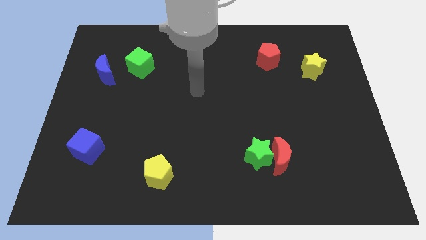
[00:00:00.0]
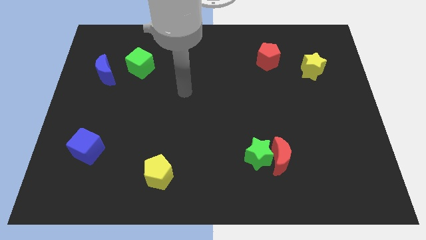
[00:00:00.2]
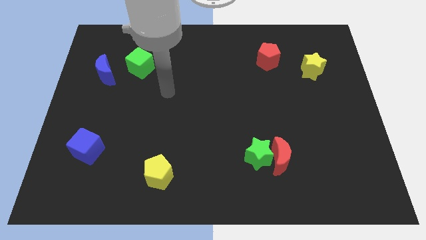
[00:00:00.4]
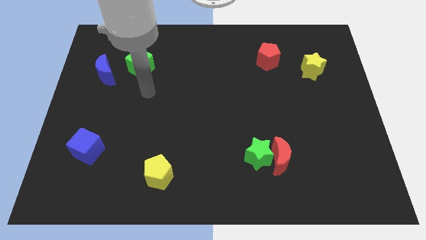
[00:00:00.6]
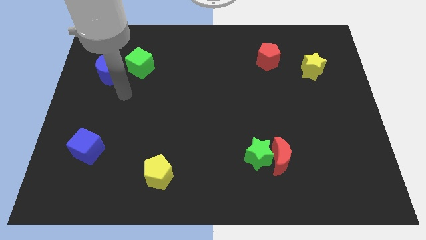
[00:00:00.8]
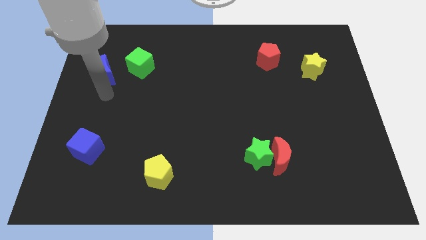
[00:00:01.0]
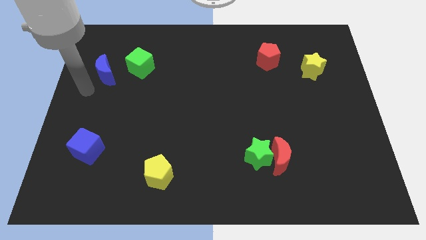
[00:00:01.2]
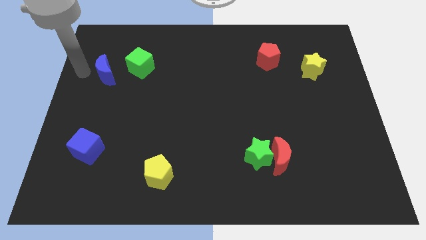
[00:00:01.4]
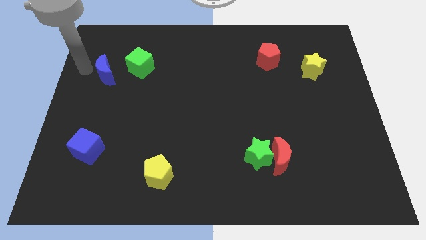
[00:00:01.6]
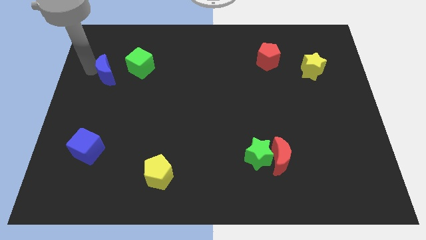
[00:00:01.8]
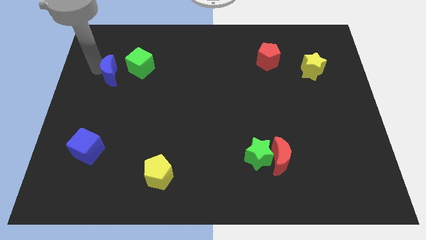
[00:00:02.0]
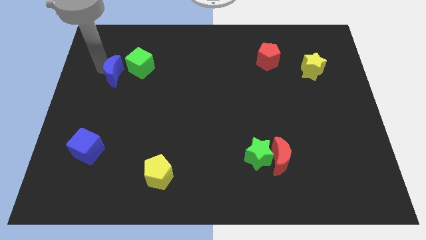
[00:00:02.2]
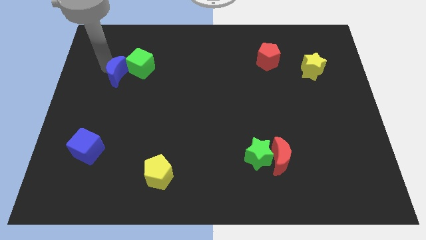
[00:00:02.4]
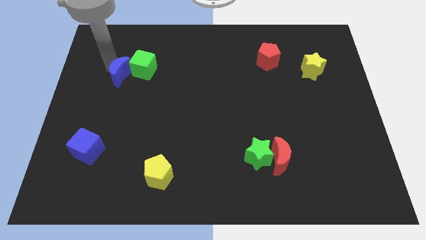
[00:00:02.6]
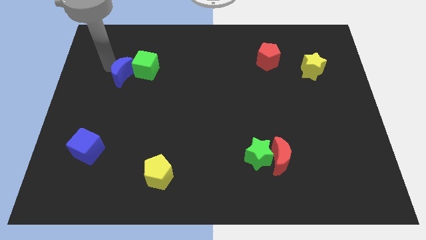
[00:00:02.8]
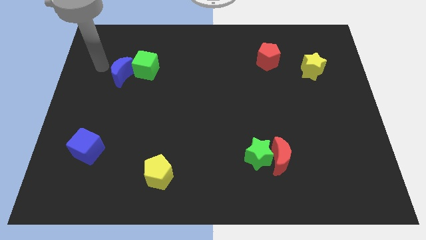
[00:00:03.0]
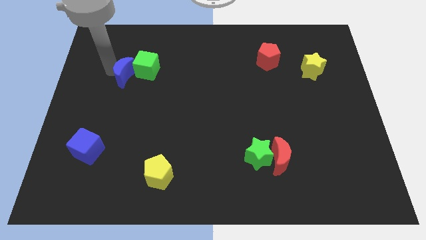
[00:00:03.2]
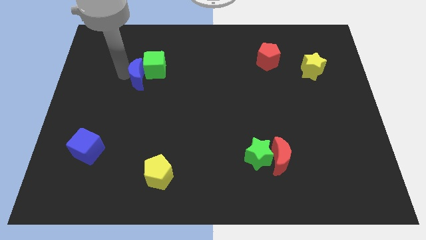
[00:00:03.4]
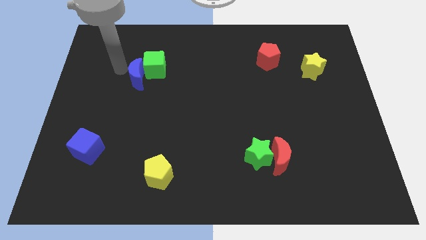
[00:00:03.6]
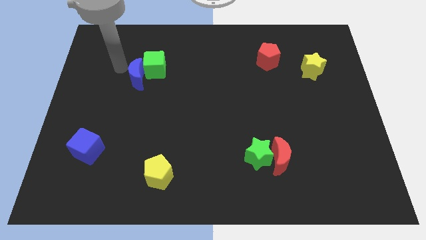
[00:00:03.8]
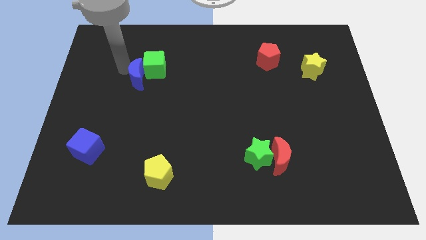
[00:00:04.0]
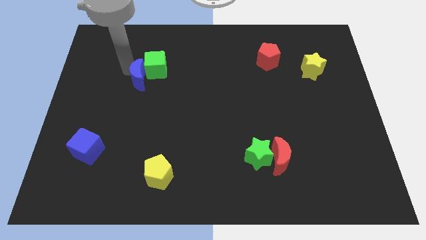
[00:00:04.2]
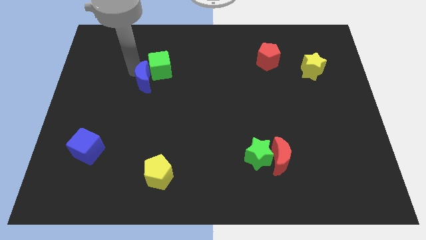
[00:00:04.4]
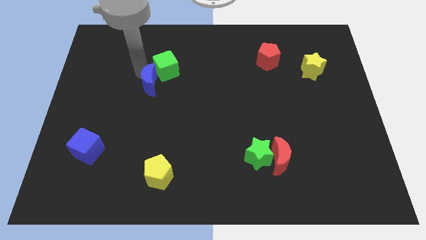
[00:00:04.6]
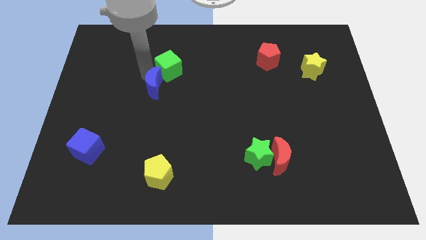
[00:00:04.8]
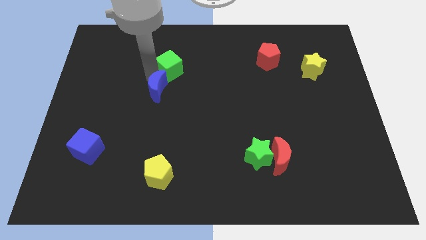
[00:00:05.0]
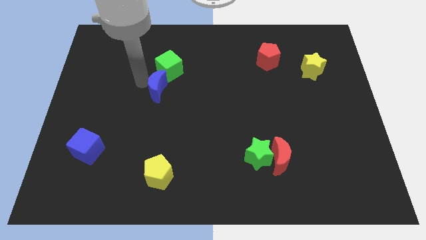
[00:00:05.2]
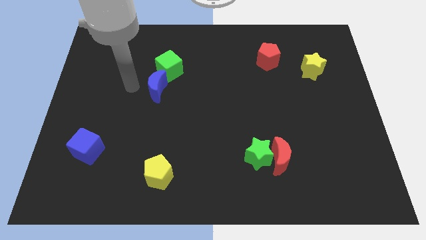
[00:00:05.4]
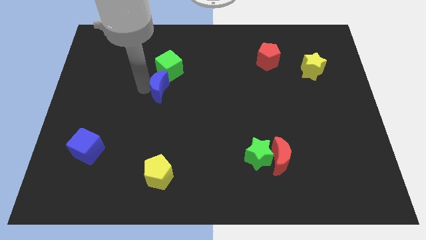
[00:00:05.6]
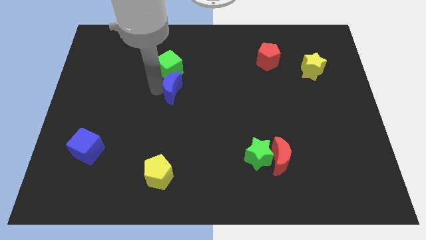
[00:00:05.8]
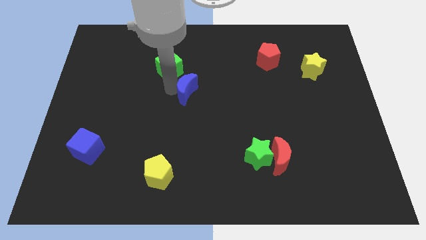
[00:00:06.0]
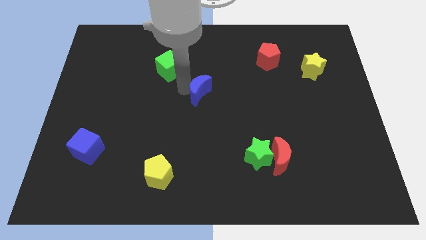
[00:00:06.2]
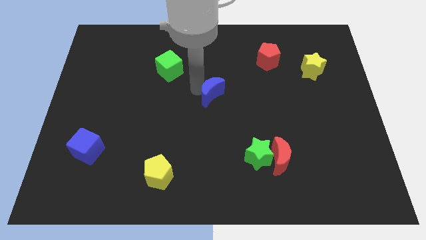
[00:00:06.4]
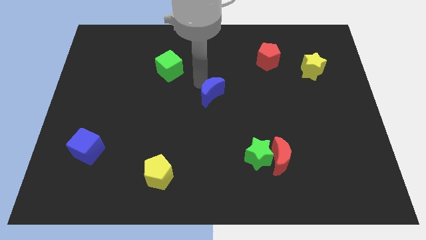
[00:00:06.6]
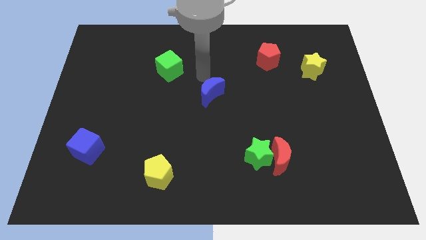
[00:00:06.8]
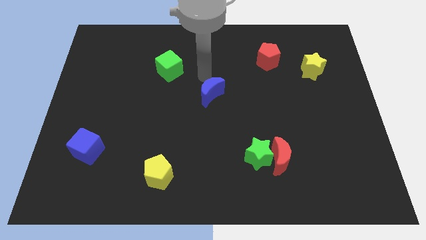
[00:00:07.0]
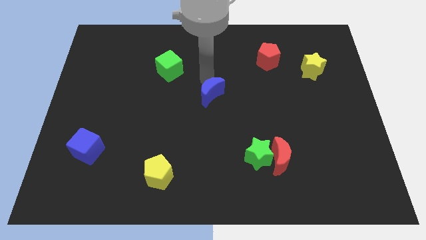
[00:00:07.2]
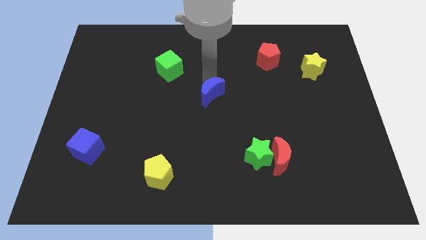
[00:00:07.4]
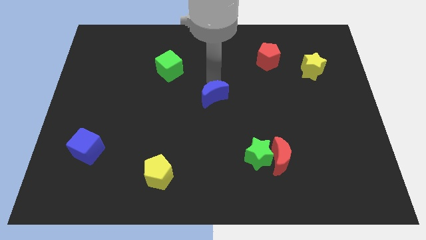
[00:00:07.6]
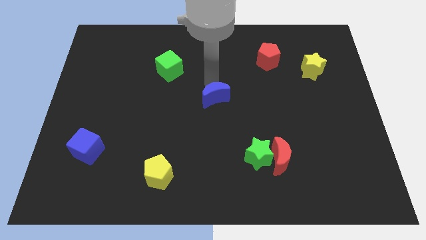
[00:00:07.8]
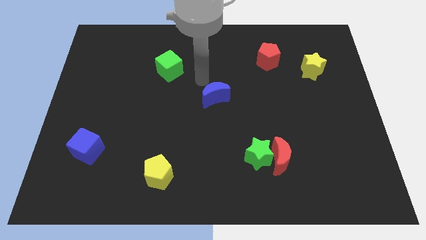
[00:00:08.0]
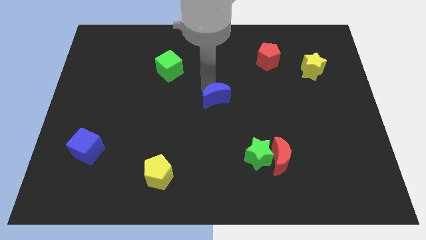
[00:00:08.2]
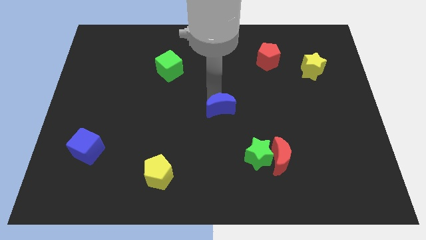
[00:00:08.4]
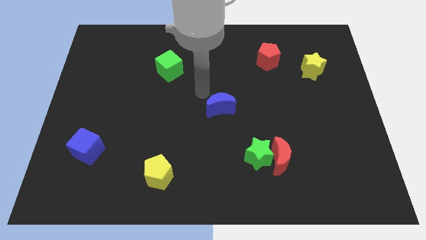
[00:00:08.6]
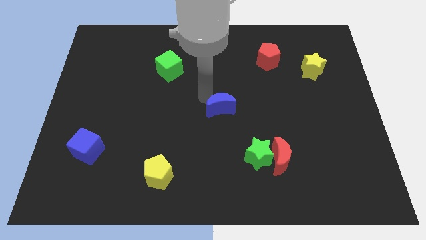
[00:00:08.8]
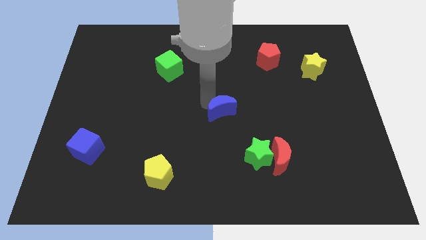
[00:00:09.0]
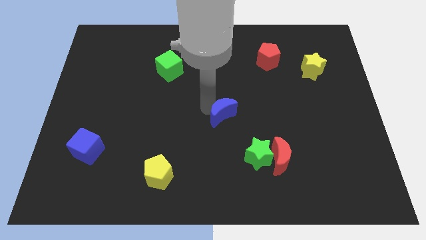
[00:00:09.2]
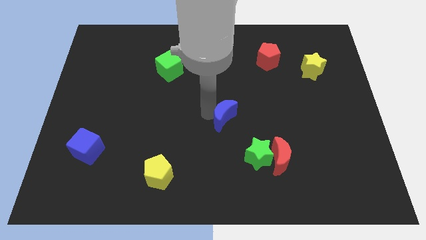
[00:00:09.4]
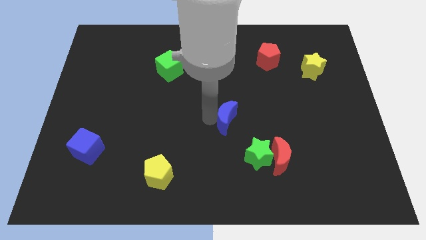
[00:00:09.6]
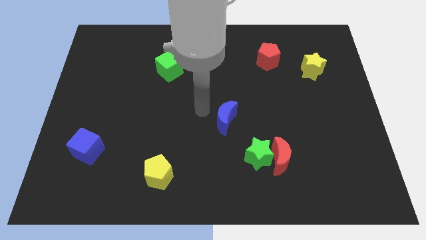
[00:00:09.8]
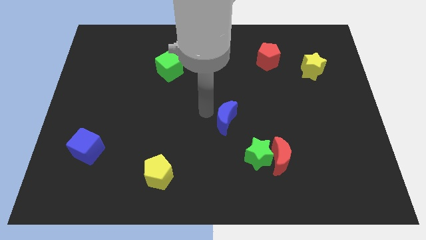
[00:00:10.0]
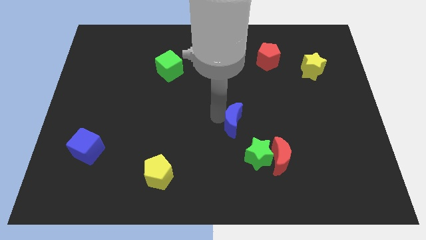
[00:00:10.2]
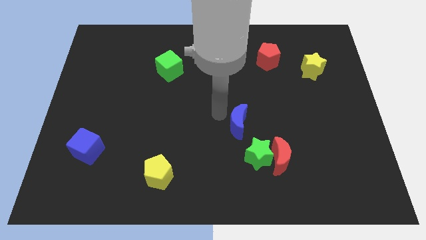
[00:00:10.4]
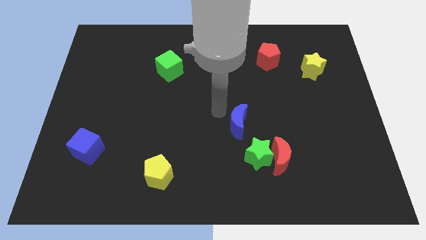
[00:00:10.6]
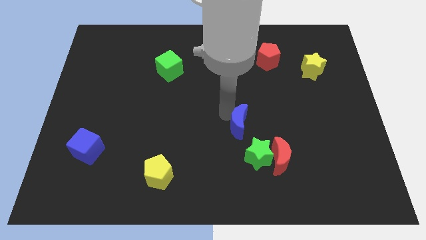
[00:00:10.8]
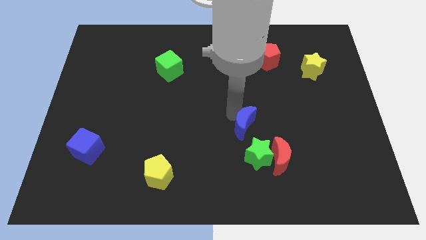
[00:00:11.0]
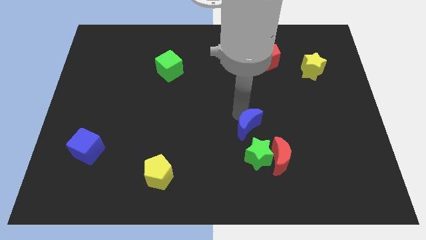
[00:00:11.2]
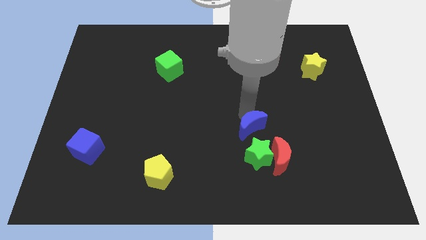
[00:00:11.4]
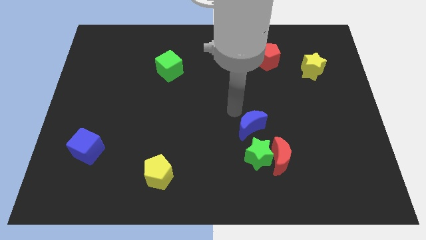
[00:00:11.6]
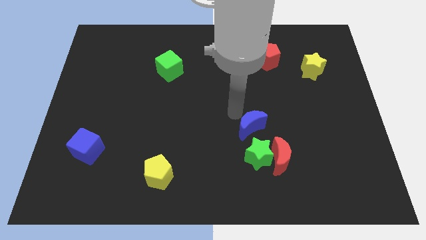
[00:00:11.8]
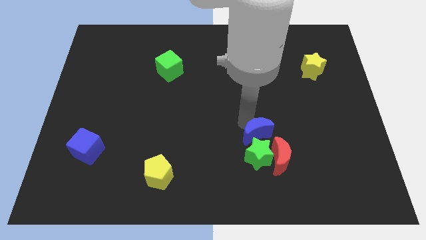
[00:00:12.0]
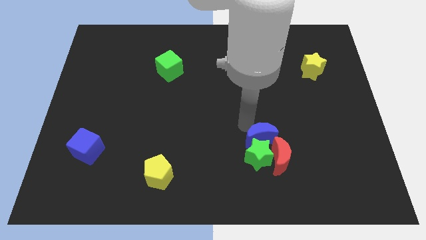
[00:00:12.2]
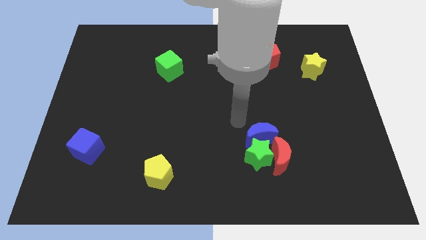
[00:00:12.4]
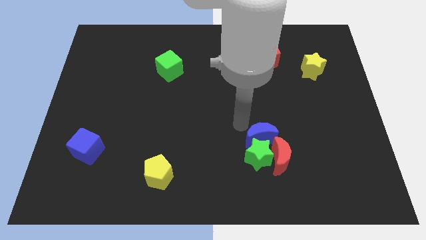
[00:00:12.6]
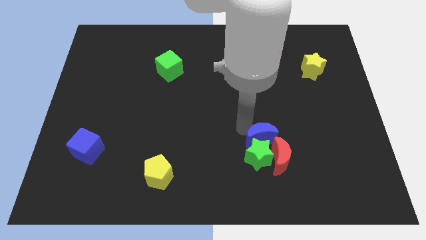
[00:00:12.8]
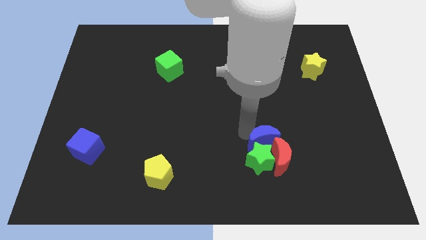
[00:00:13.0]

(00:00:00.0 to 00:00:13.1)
put the blue moon to the red moon

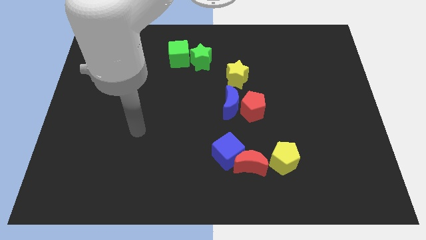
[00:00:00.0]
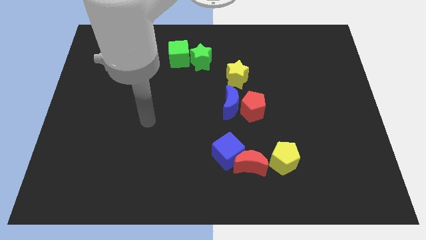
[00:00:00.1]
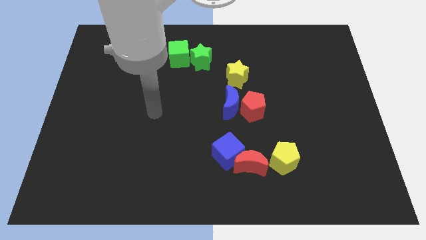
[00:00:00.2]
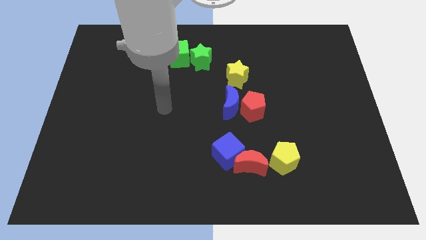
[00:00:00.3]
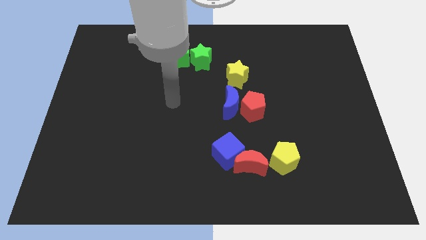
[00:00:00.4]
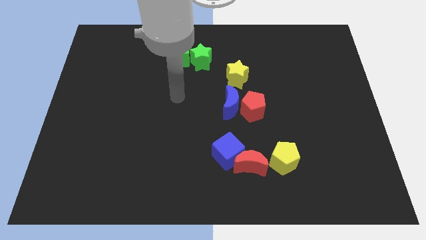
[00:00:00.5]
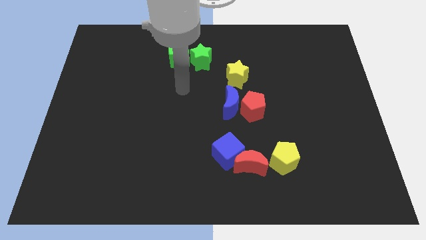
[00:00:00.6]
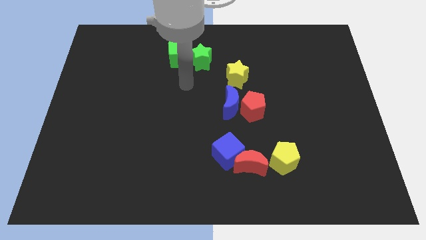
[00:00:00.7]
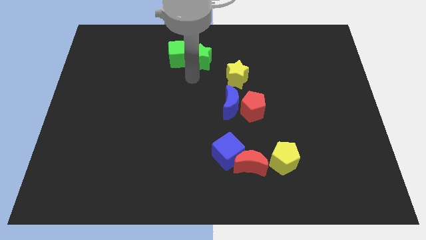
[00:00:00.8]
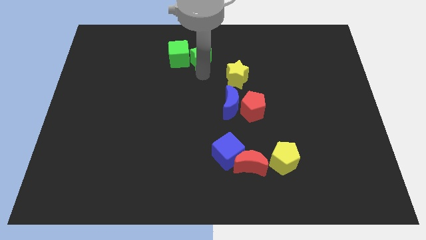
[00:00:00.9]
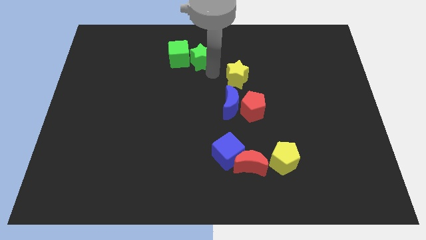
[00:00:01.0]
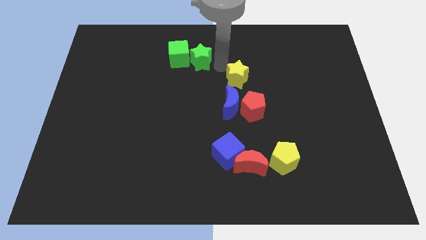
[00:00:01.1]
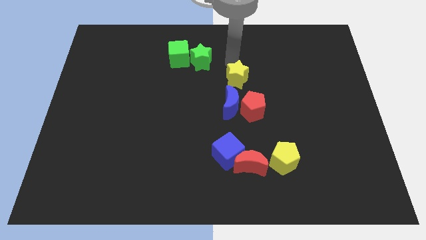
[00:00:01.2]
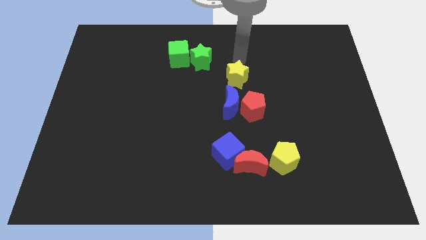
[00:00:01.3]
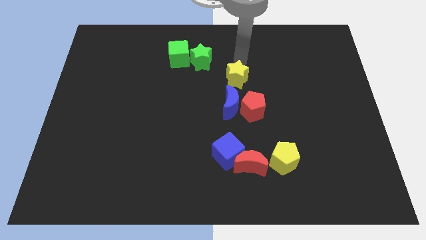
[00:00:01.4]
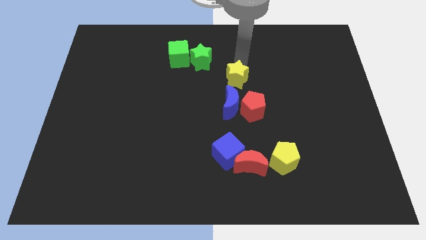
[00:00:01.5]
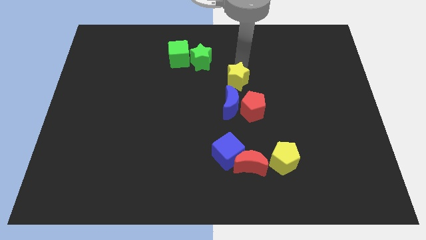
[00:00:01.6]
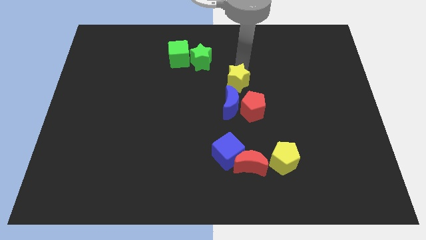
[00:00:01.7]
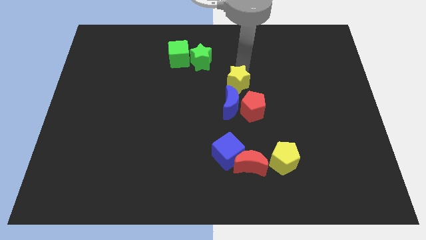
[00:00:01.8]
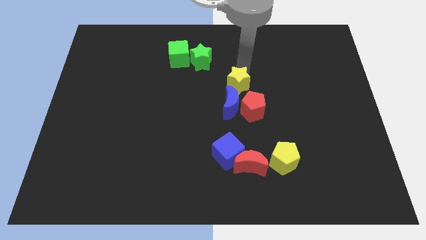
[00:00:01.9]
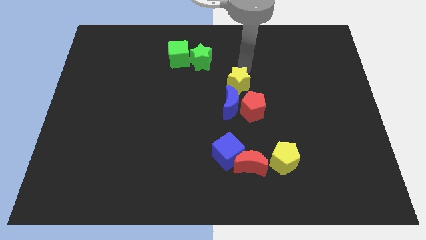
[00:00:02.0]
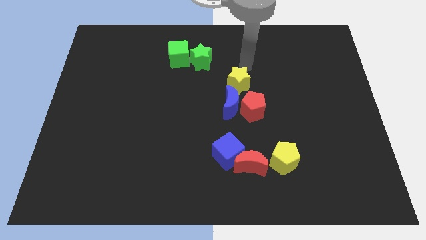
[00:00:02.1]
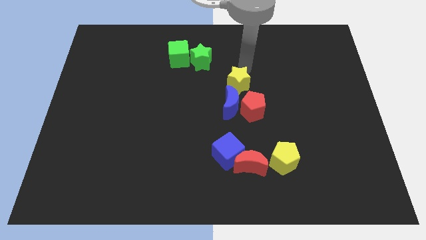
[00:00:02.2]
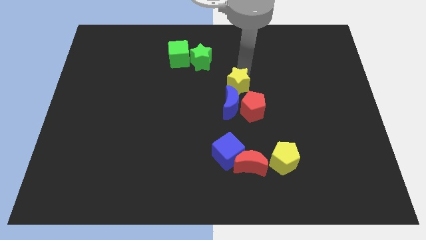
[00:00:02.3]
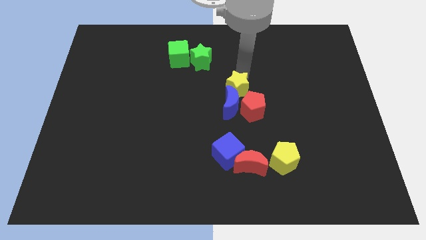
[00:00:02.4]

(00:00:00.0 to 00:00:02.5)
push the yellow star next to the blue moon
